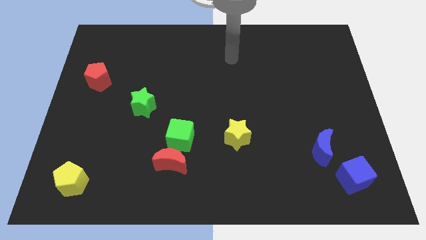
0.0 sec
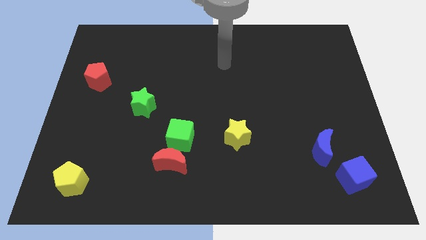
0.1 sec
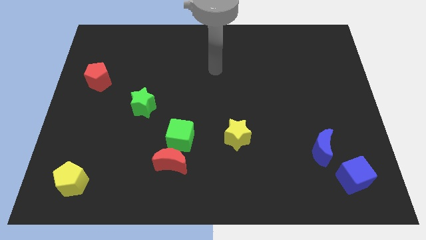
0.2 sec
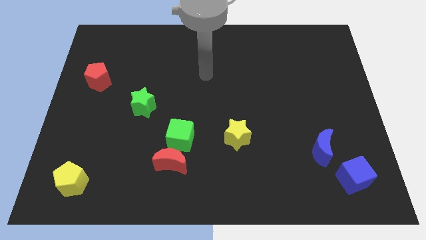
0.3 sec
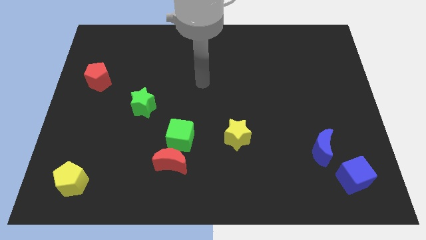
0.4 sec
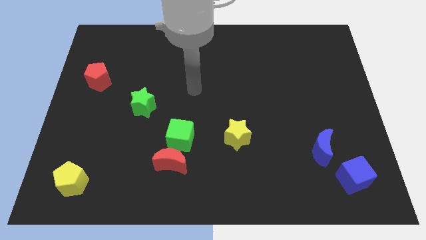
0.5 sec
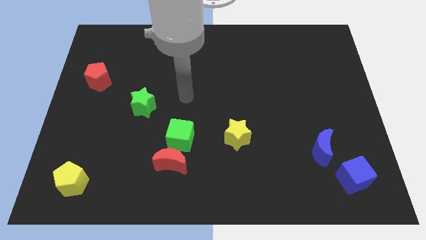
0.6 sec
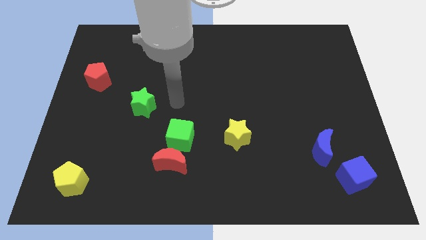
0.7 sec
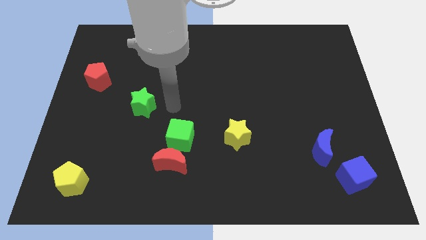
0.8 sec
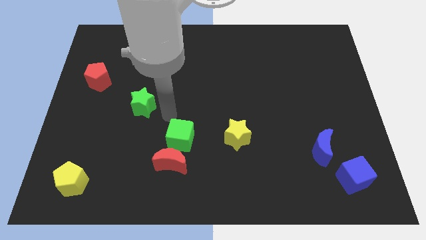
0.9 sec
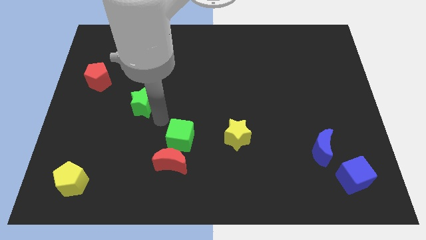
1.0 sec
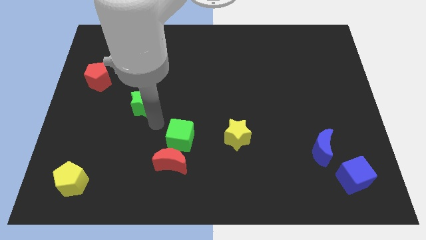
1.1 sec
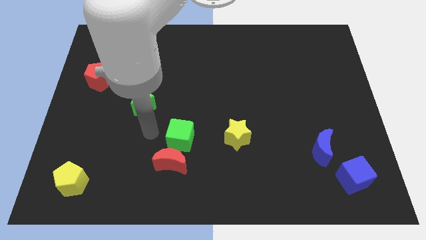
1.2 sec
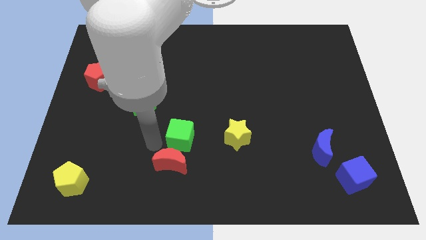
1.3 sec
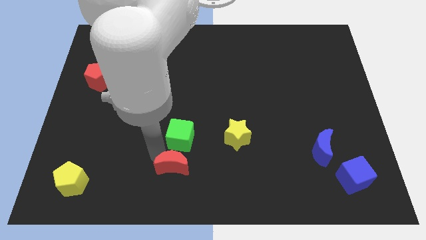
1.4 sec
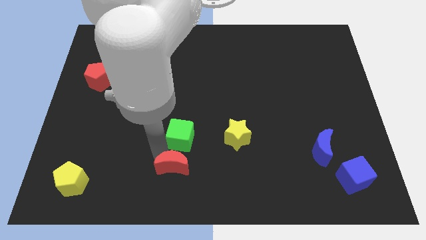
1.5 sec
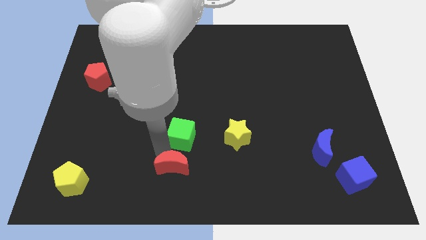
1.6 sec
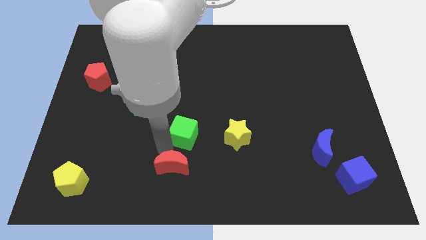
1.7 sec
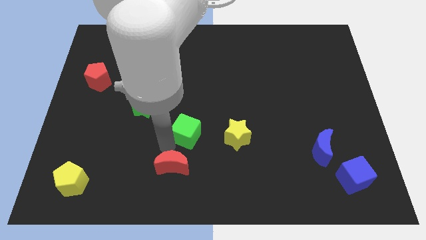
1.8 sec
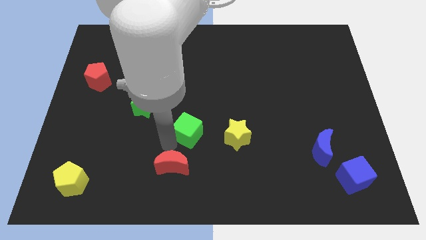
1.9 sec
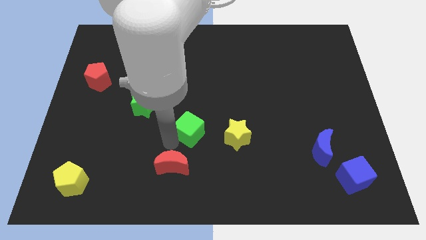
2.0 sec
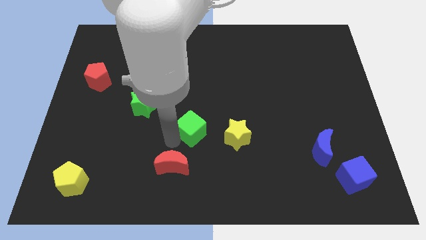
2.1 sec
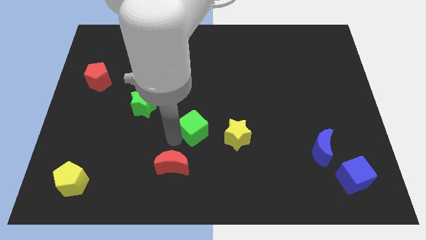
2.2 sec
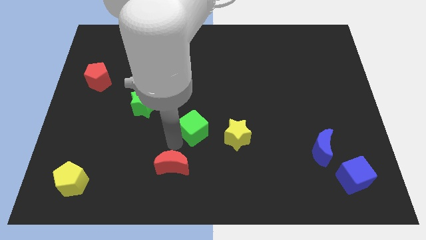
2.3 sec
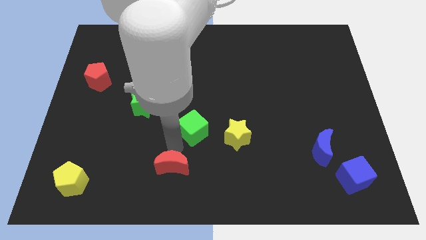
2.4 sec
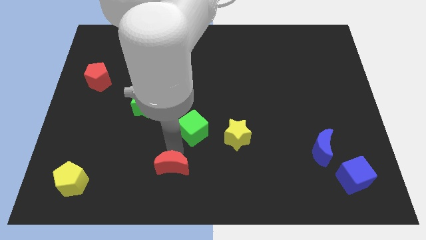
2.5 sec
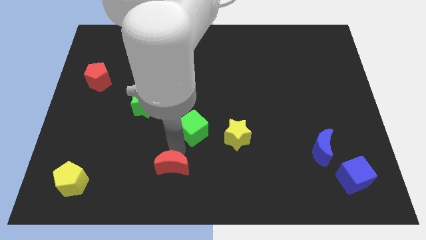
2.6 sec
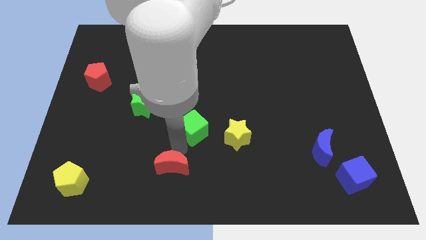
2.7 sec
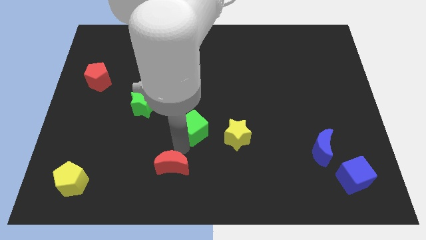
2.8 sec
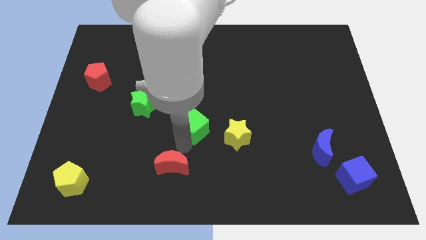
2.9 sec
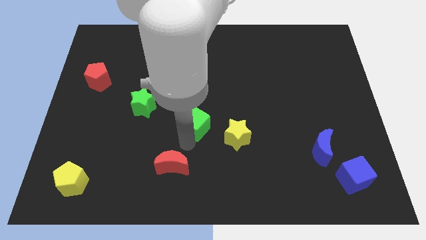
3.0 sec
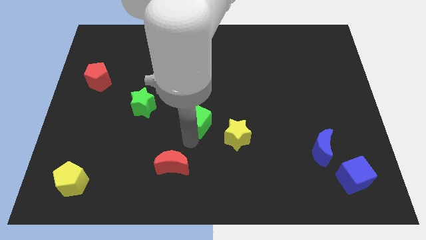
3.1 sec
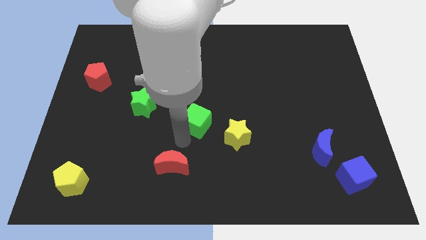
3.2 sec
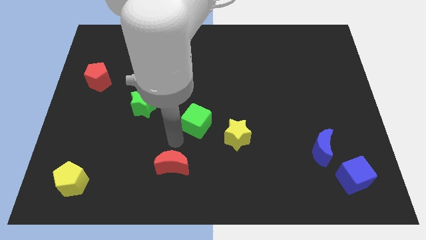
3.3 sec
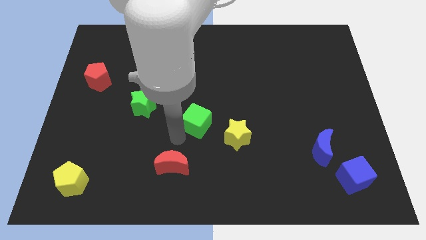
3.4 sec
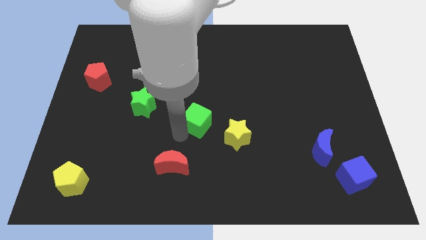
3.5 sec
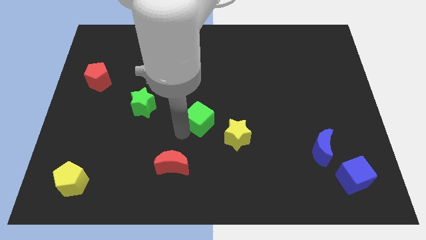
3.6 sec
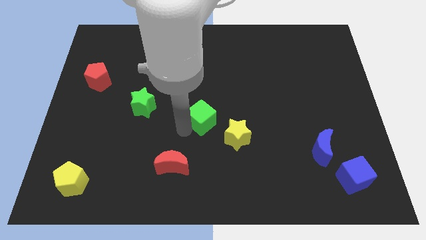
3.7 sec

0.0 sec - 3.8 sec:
slightly slide the green cube diagonally up and right

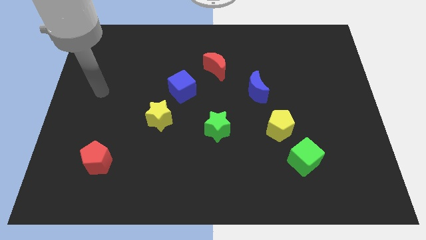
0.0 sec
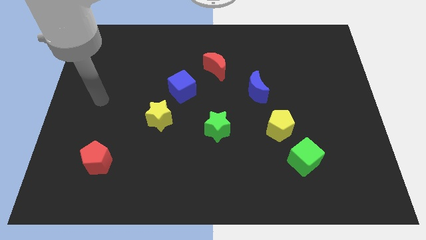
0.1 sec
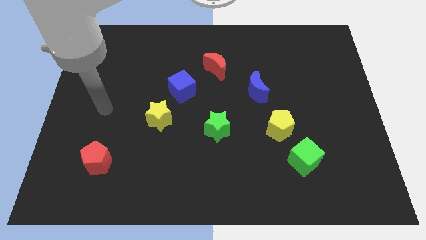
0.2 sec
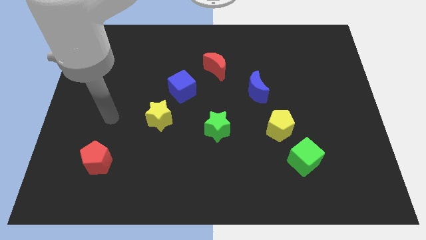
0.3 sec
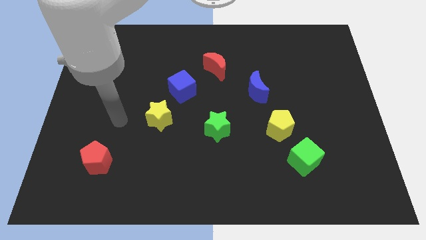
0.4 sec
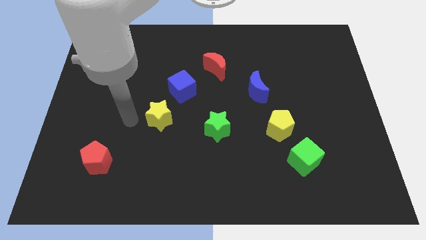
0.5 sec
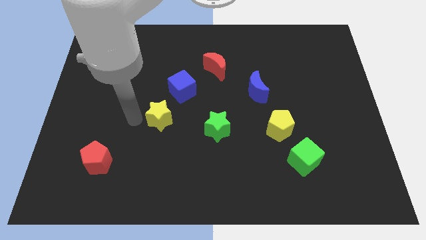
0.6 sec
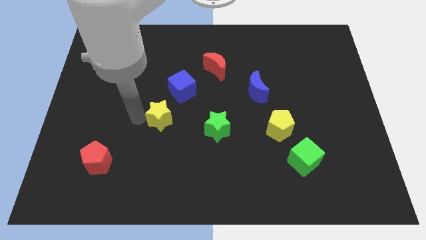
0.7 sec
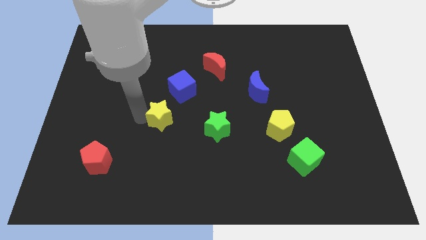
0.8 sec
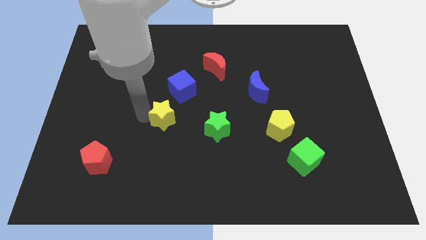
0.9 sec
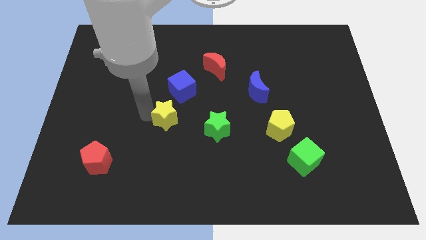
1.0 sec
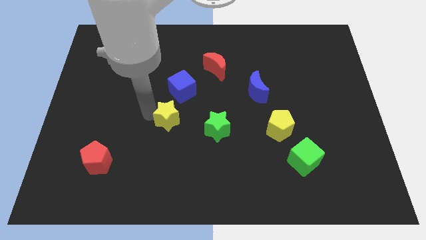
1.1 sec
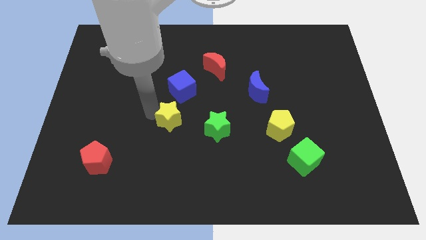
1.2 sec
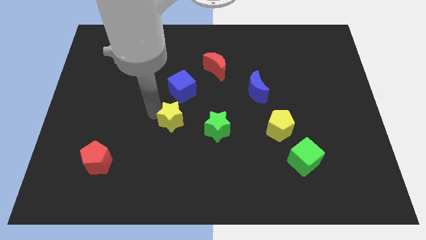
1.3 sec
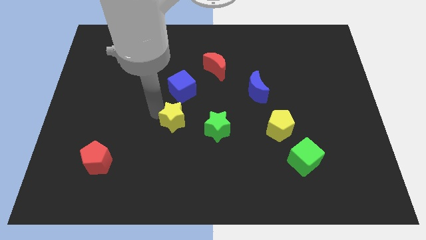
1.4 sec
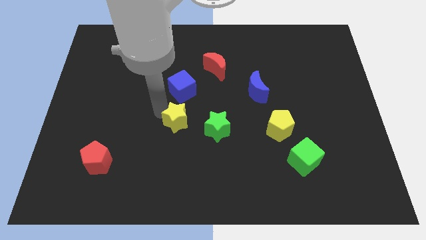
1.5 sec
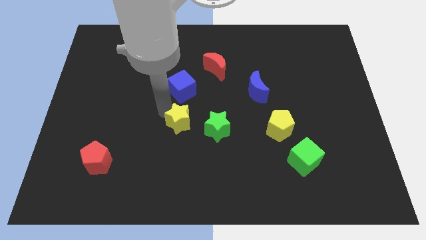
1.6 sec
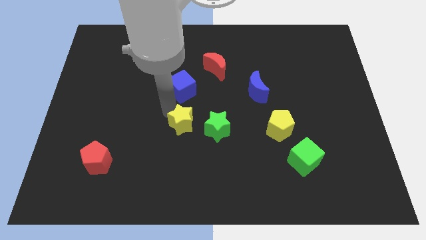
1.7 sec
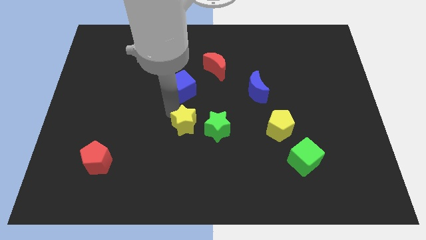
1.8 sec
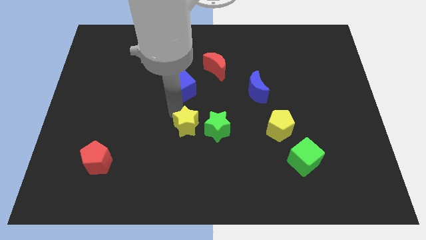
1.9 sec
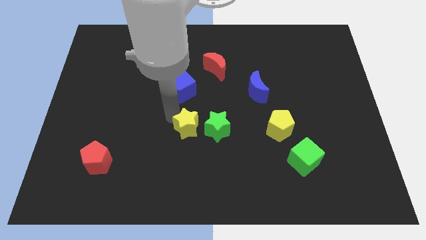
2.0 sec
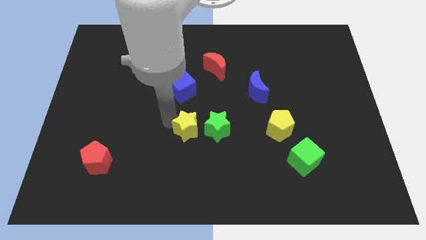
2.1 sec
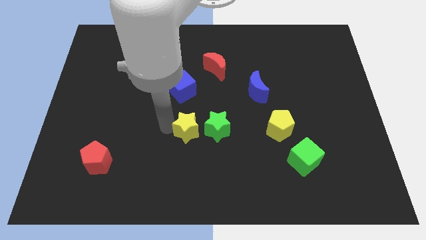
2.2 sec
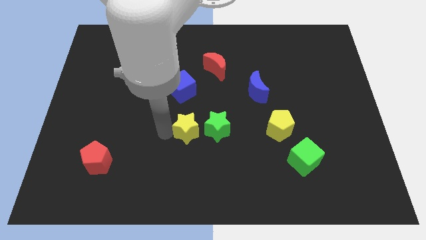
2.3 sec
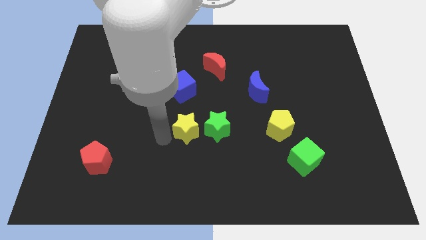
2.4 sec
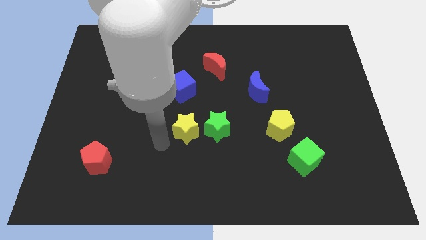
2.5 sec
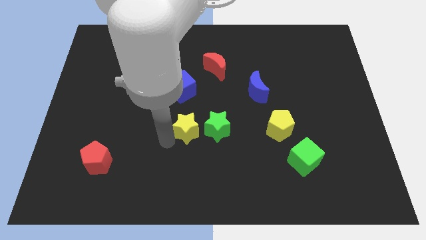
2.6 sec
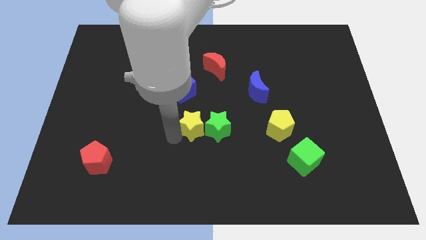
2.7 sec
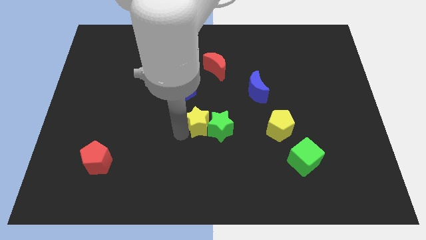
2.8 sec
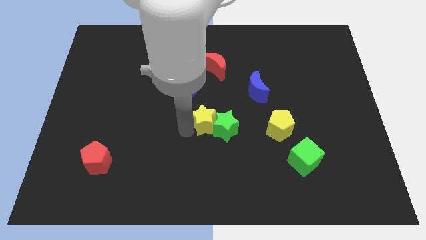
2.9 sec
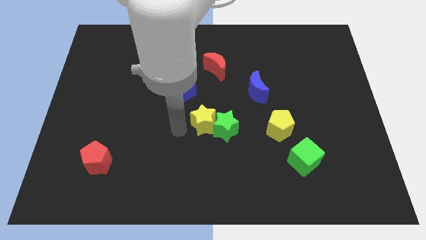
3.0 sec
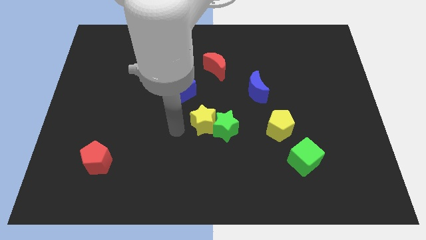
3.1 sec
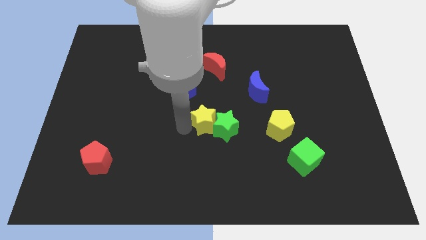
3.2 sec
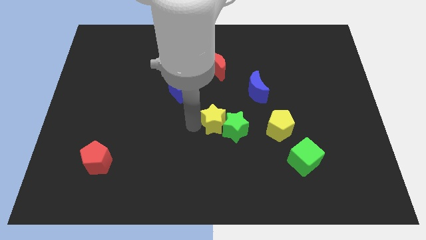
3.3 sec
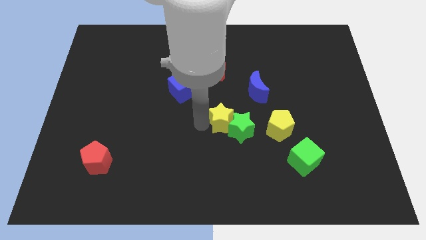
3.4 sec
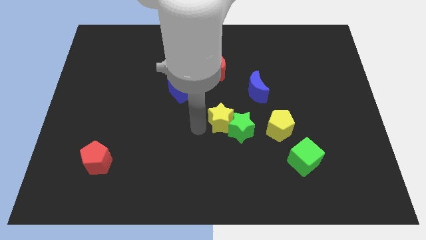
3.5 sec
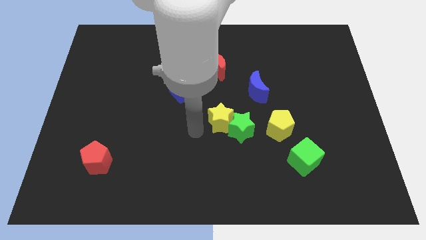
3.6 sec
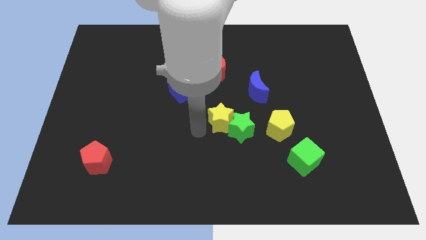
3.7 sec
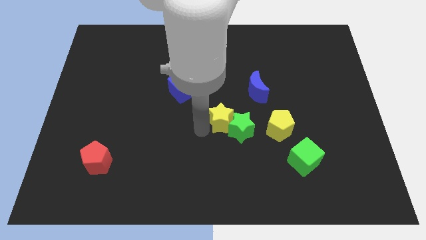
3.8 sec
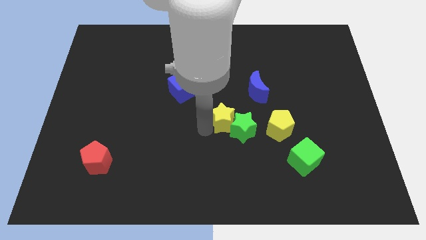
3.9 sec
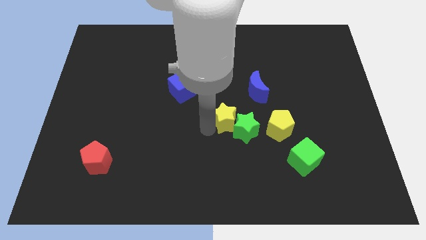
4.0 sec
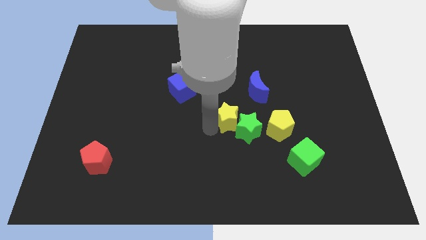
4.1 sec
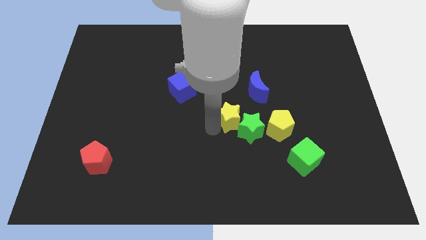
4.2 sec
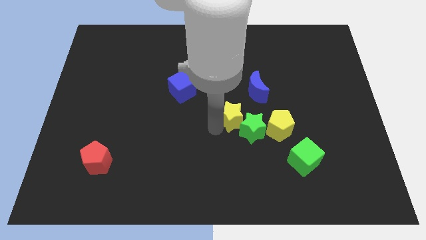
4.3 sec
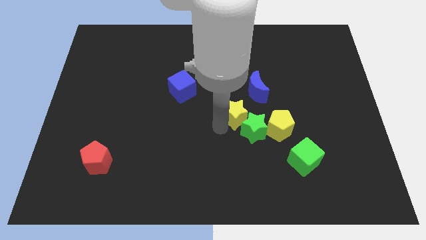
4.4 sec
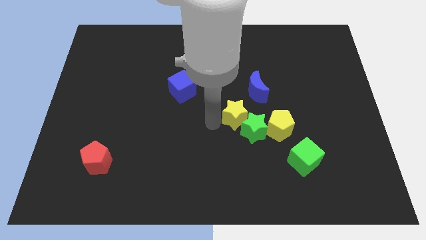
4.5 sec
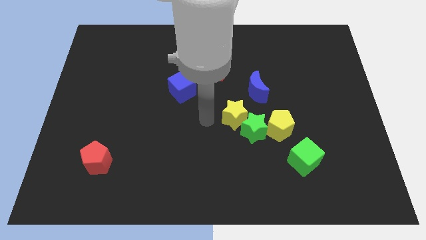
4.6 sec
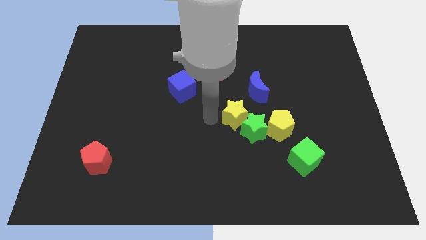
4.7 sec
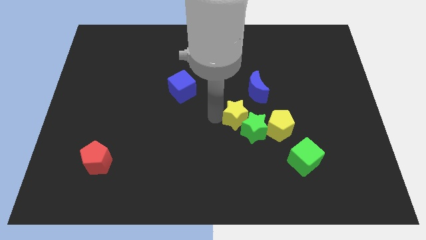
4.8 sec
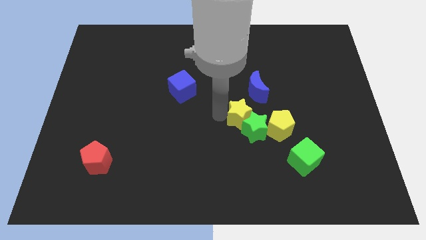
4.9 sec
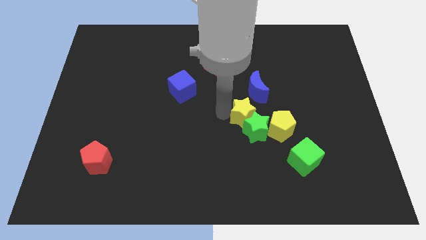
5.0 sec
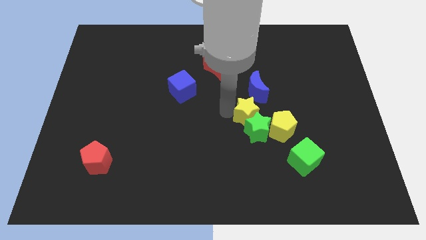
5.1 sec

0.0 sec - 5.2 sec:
slide the yellow star to the right
